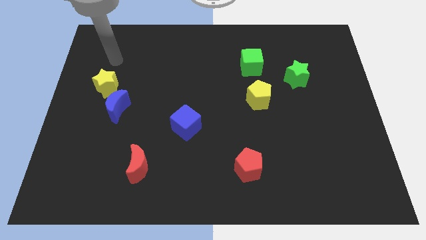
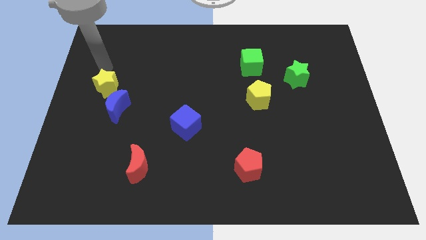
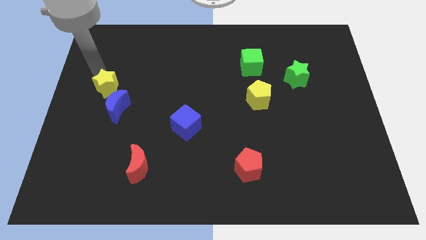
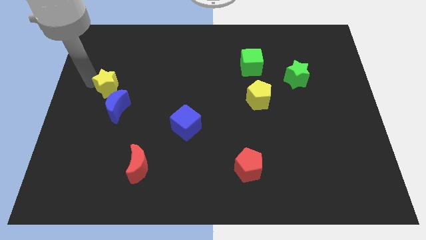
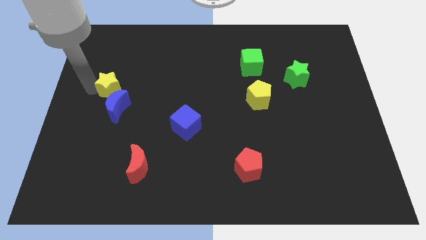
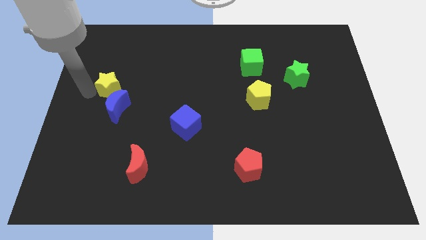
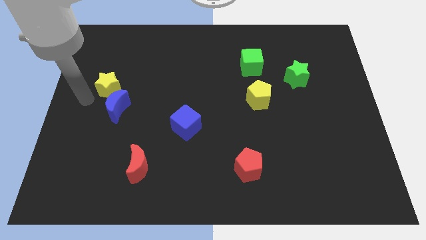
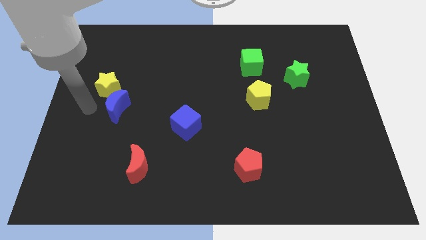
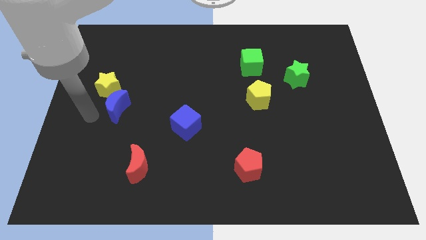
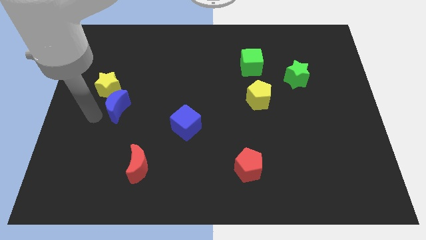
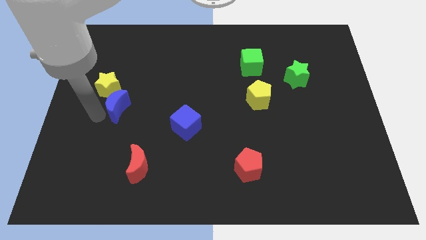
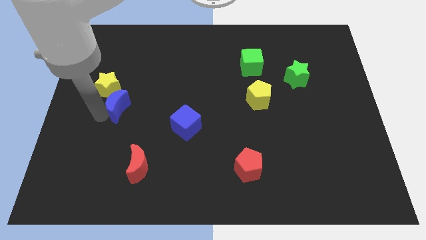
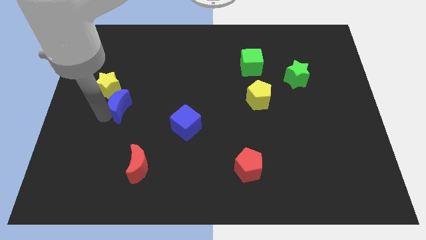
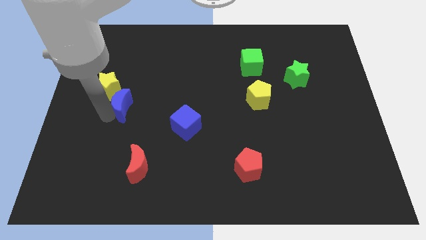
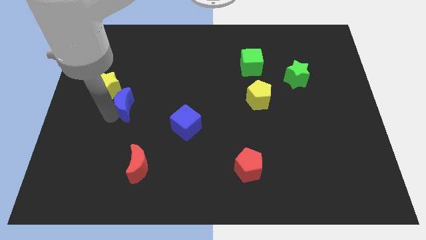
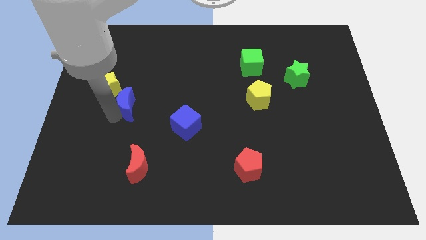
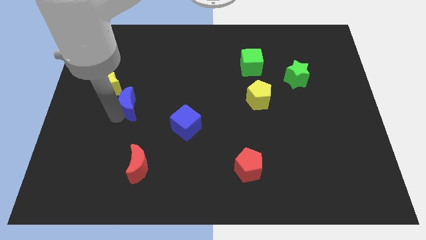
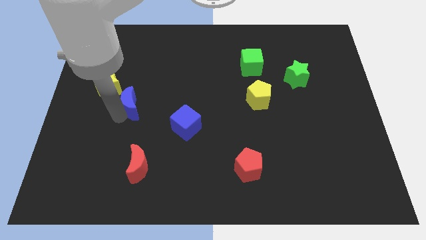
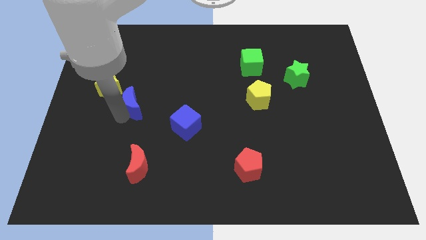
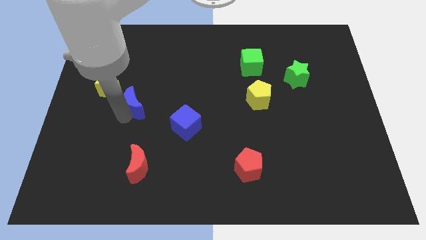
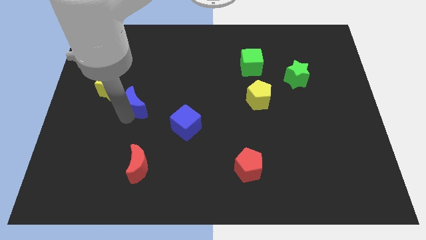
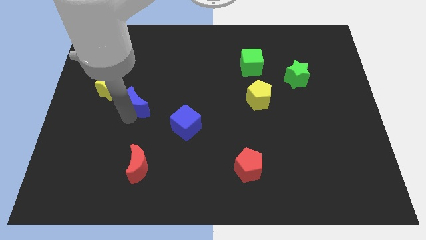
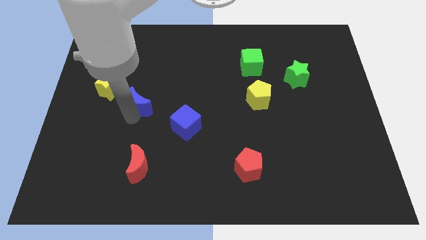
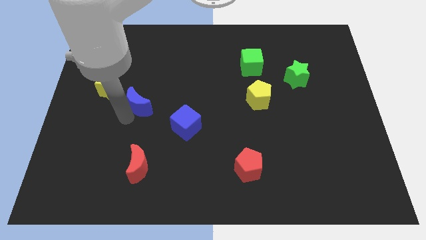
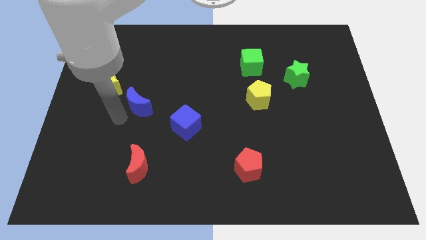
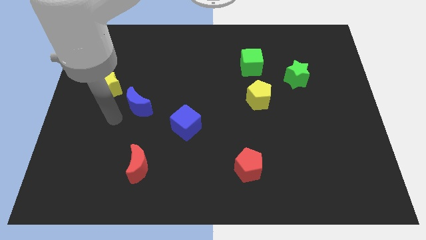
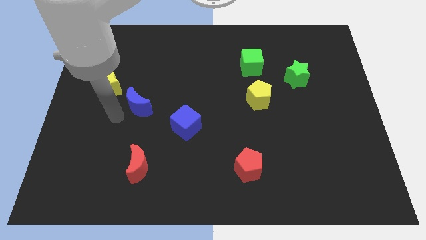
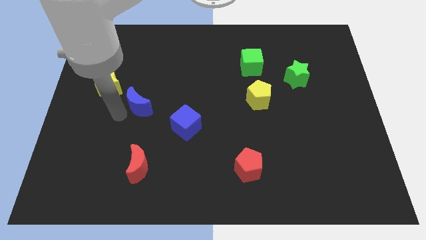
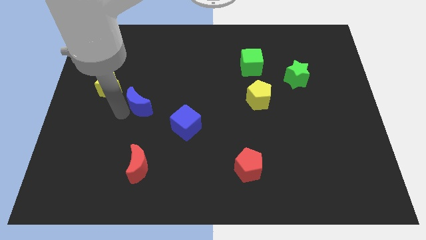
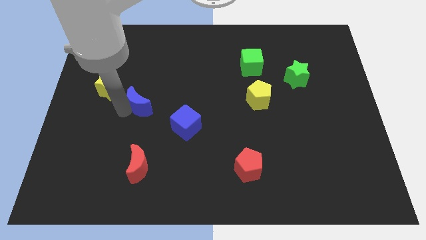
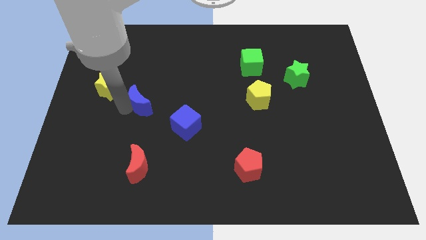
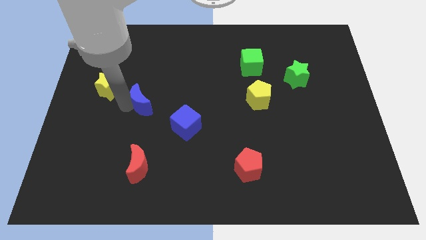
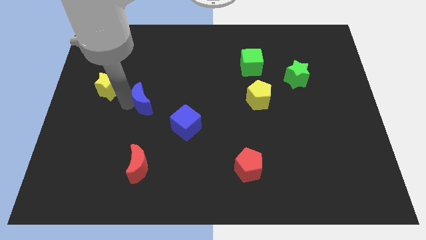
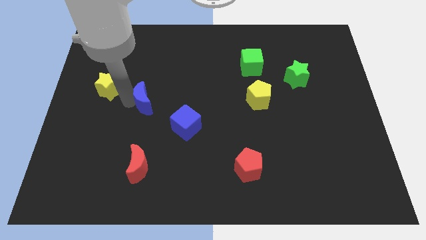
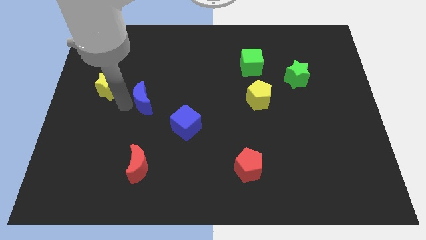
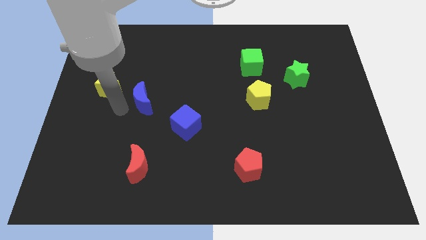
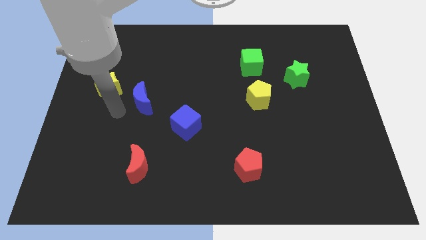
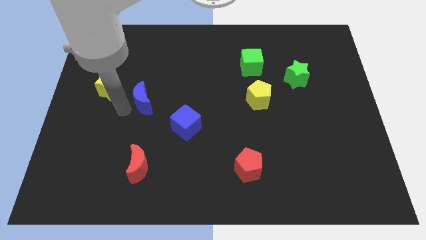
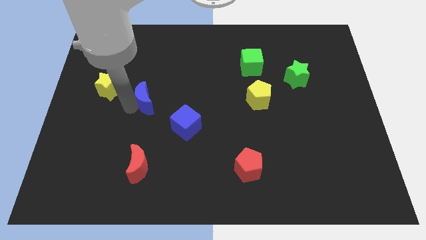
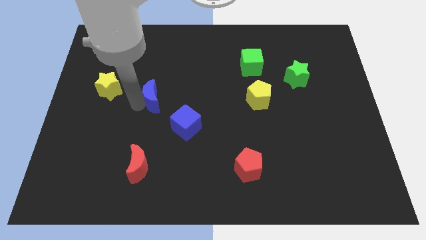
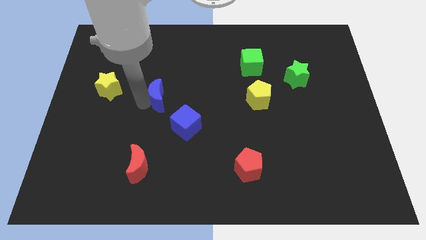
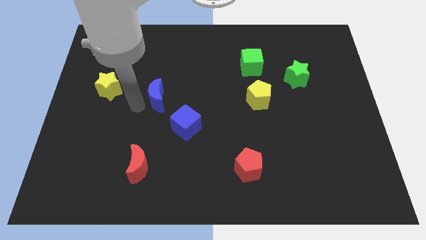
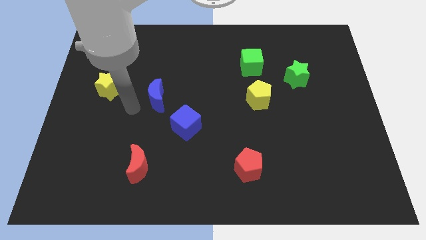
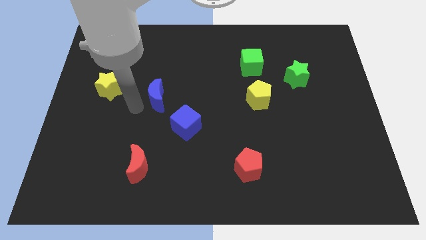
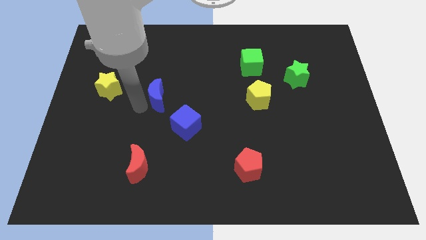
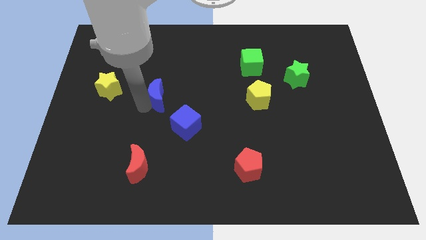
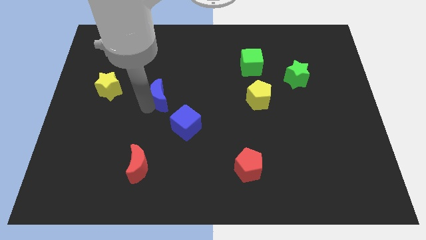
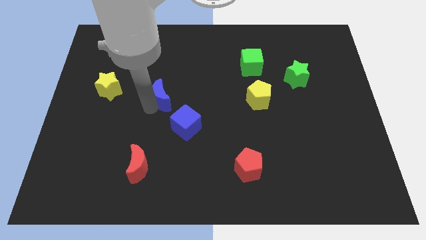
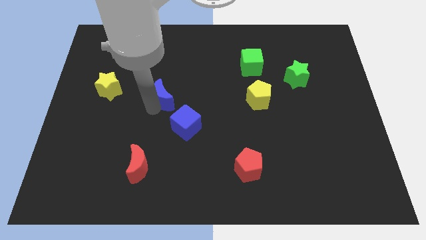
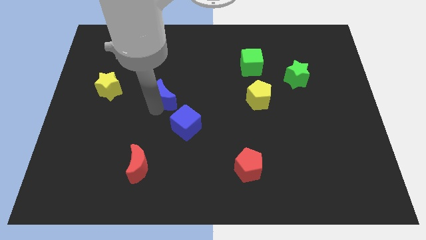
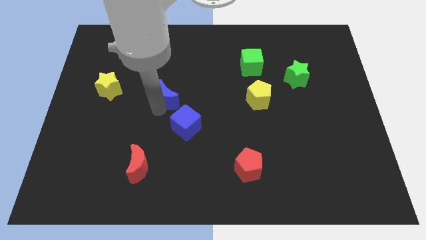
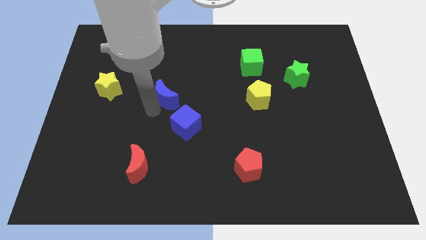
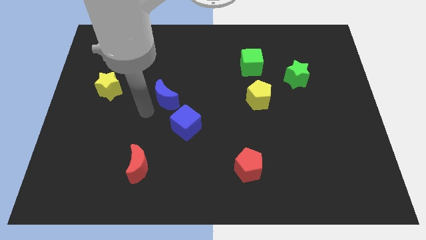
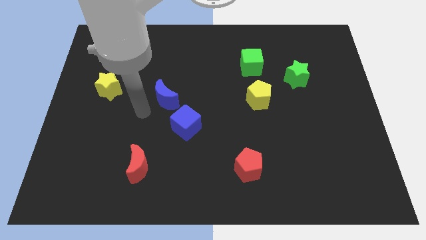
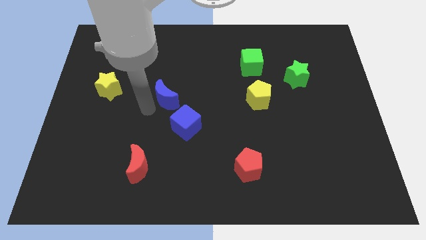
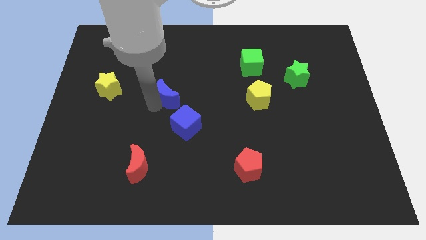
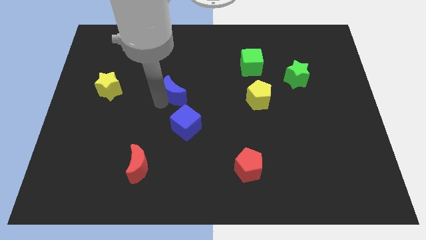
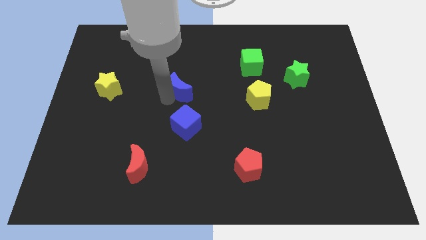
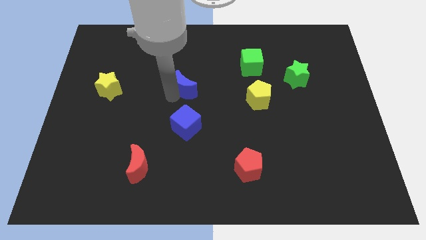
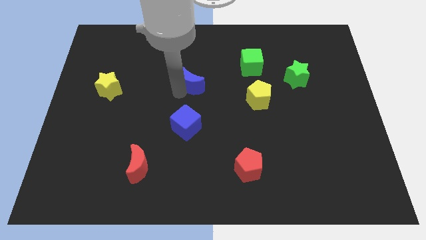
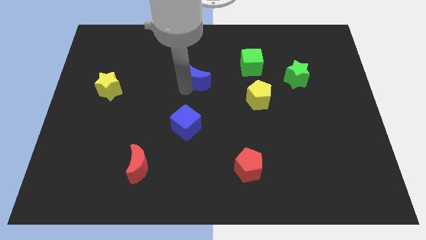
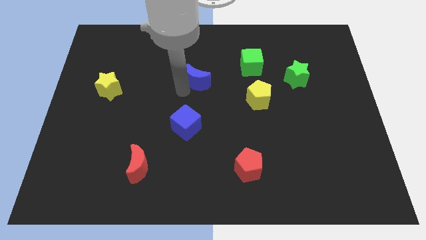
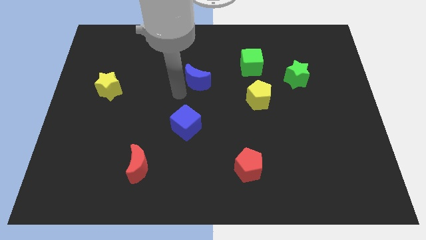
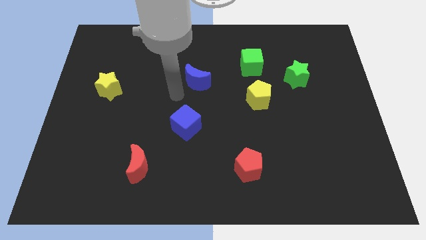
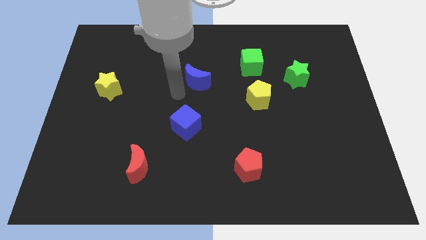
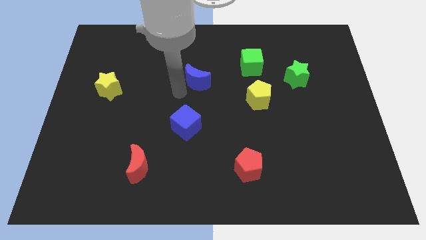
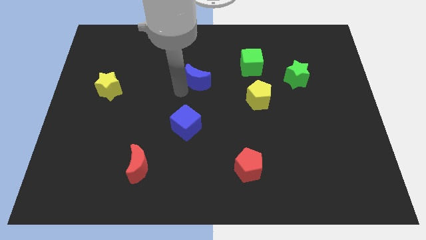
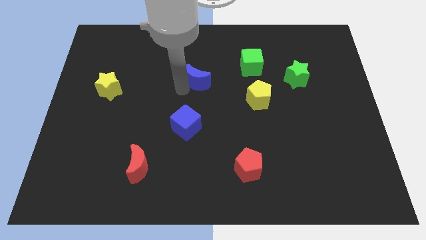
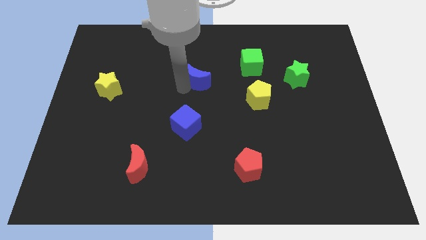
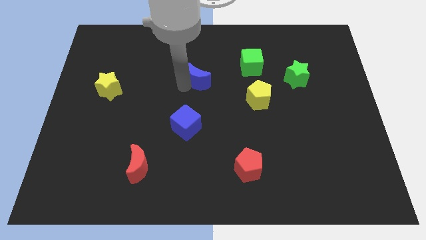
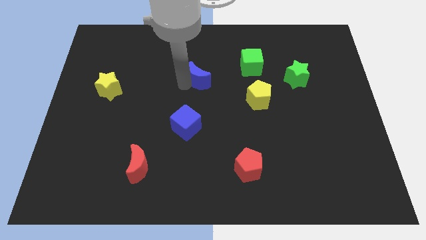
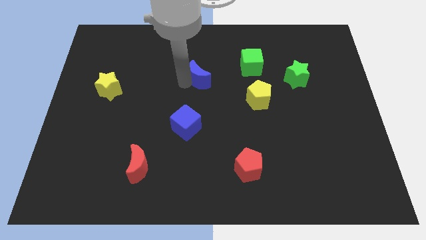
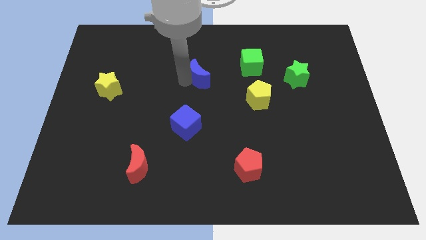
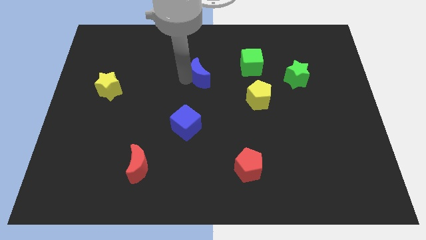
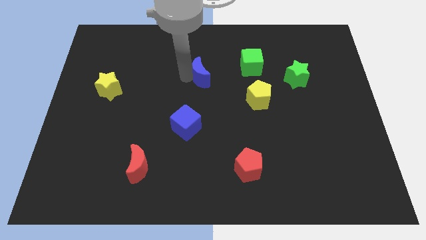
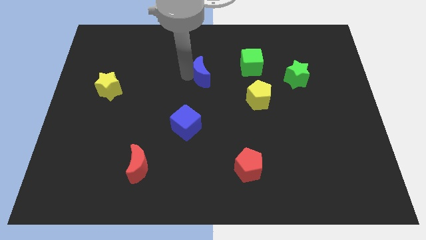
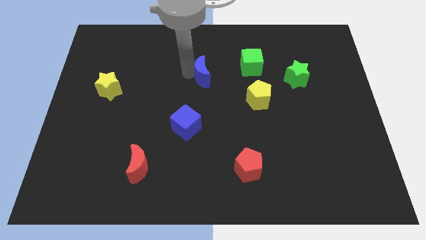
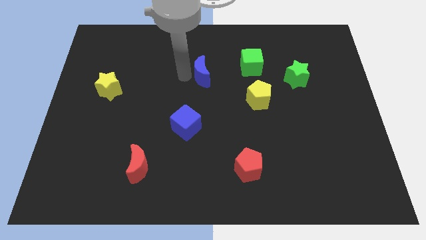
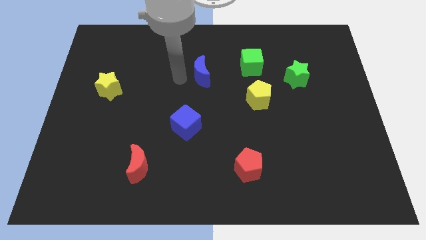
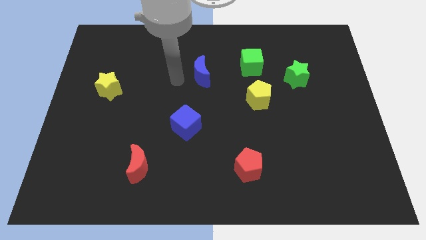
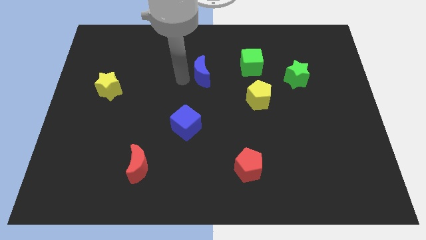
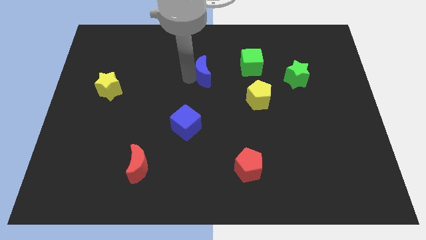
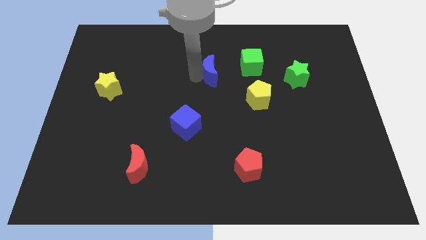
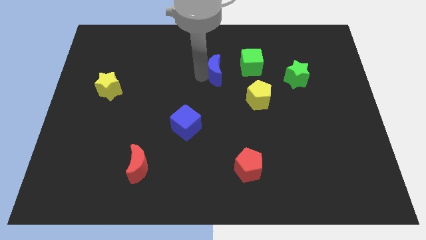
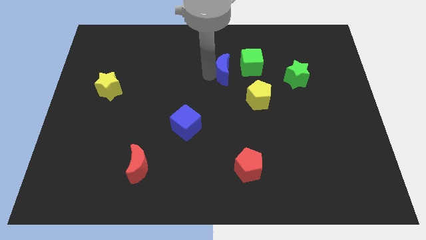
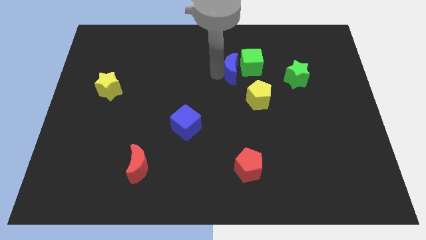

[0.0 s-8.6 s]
push the blue moon towards the green cube
